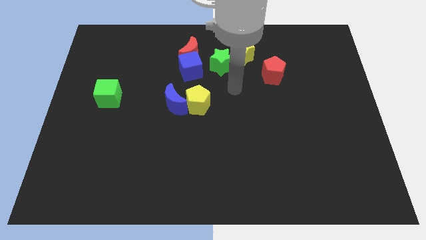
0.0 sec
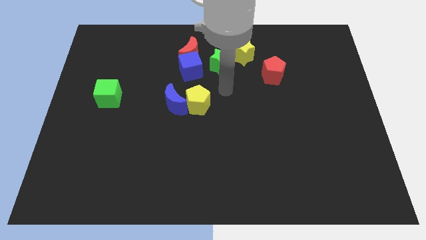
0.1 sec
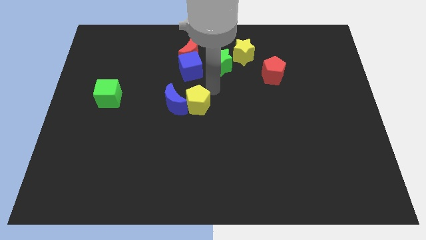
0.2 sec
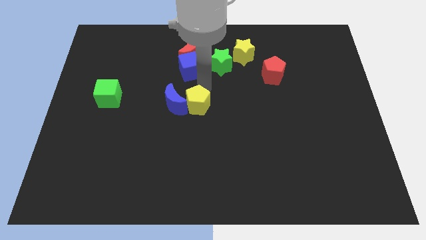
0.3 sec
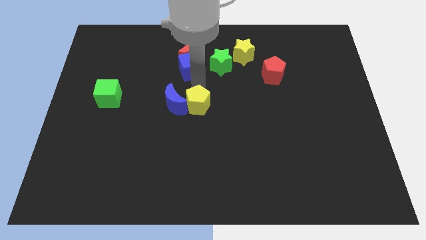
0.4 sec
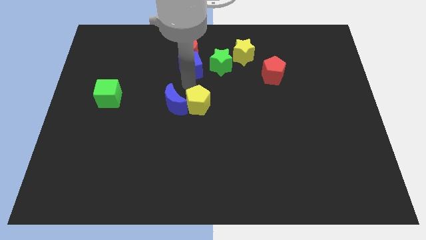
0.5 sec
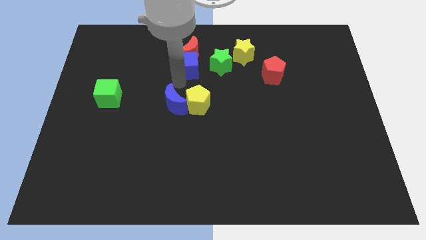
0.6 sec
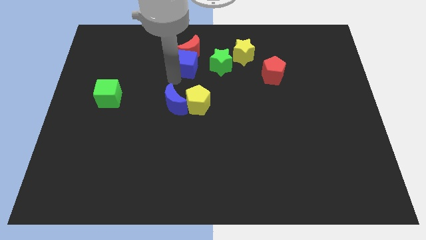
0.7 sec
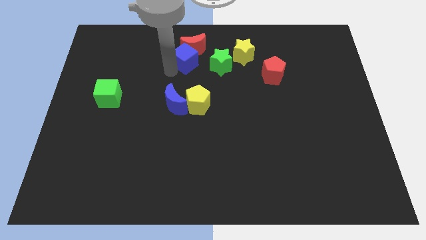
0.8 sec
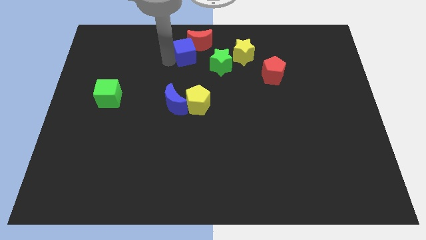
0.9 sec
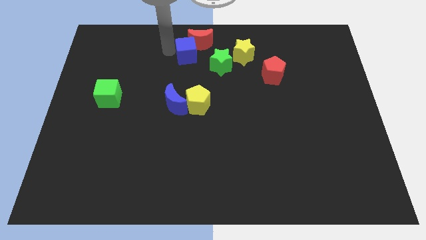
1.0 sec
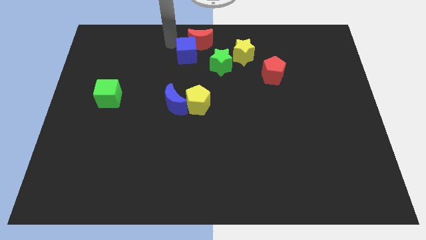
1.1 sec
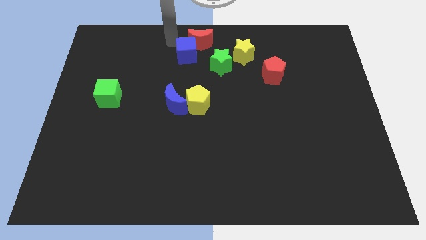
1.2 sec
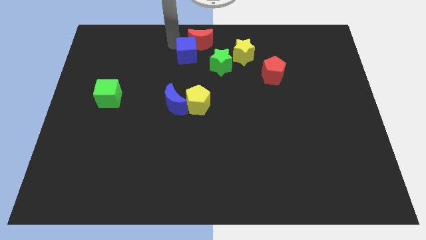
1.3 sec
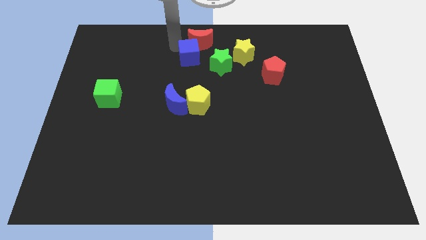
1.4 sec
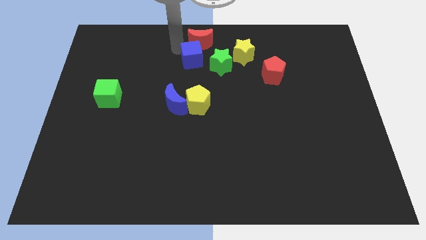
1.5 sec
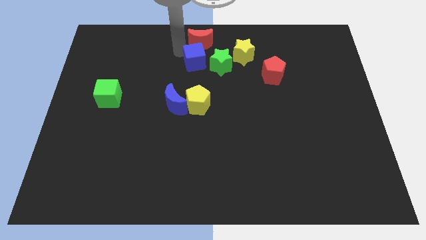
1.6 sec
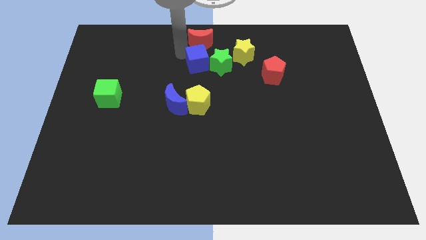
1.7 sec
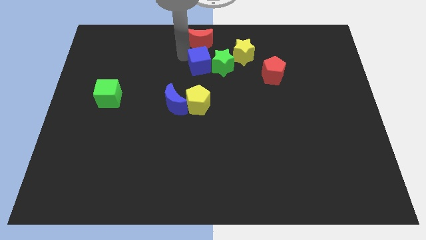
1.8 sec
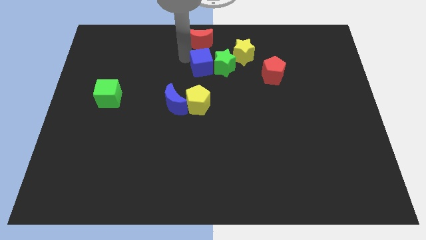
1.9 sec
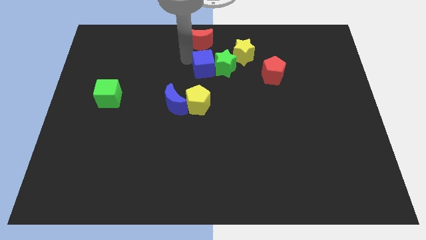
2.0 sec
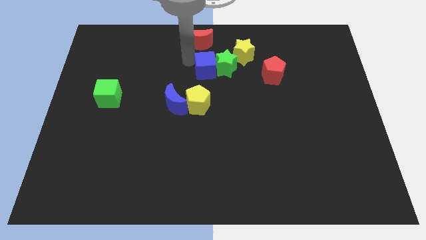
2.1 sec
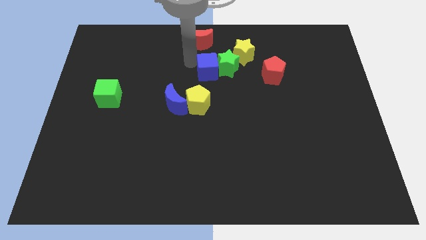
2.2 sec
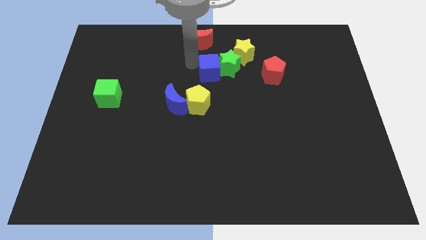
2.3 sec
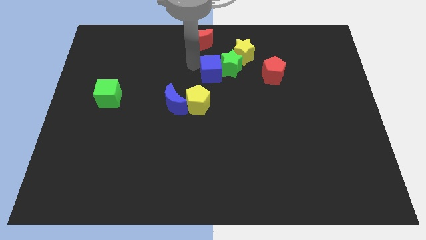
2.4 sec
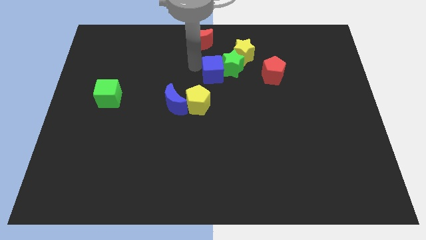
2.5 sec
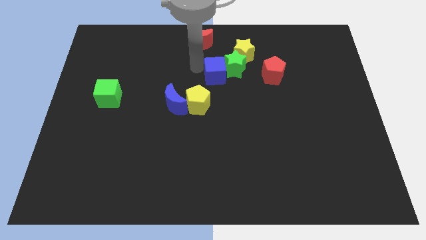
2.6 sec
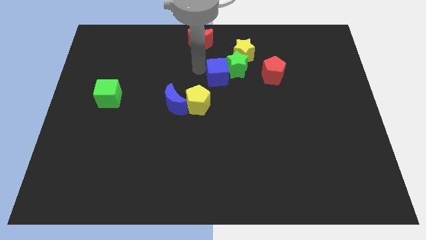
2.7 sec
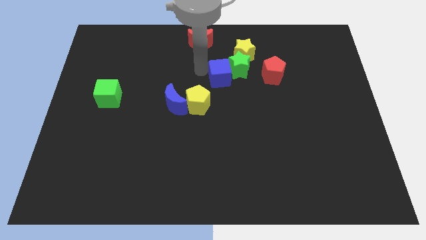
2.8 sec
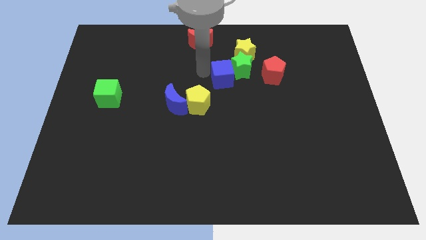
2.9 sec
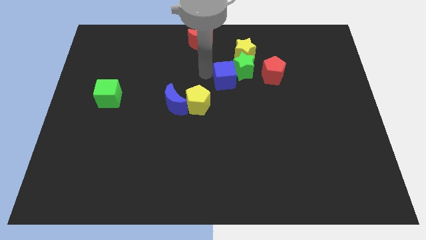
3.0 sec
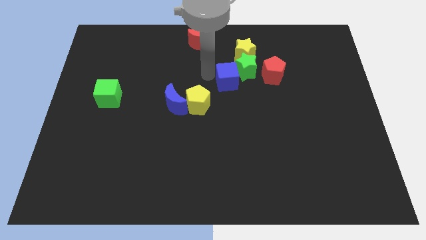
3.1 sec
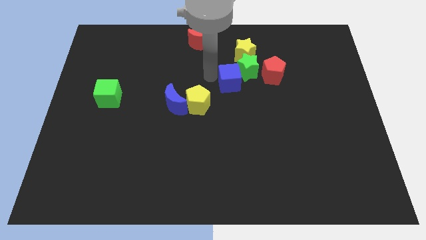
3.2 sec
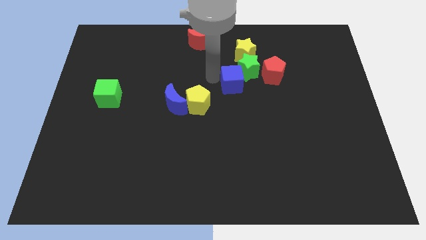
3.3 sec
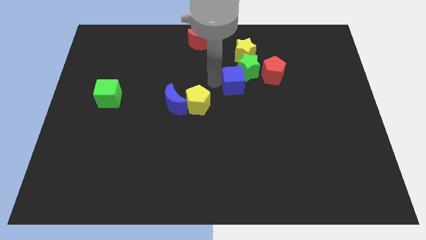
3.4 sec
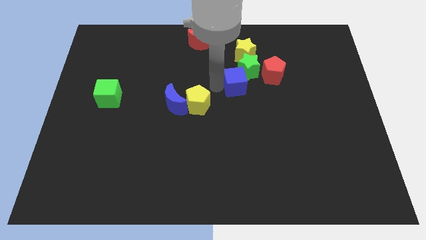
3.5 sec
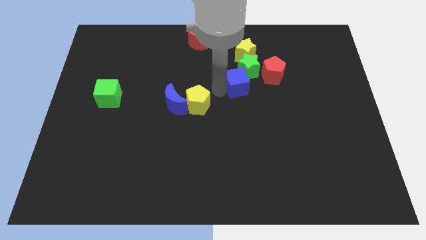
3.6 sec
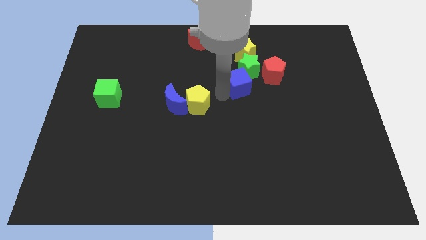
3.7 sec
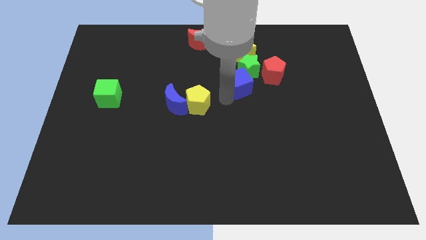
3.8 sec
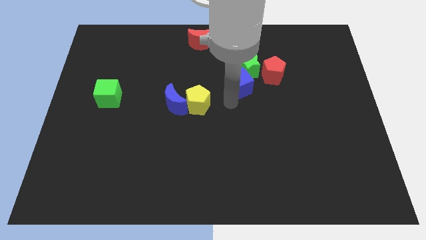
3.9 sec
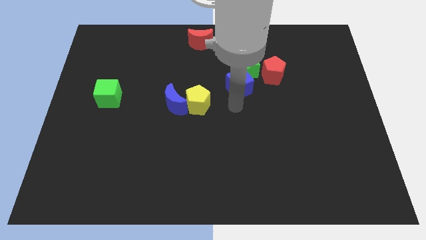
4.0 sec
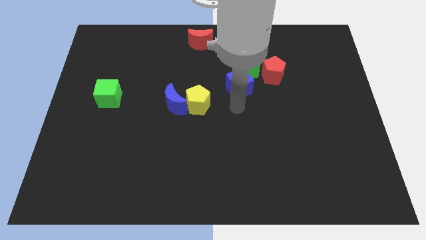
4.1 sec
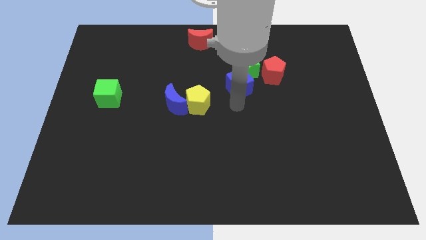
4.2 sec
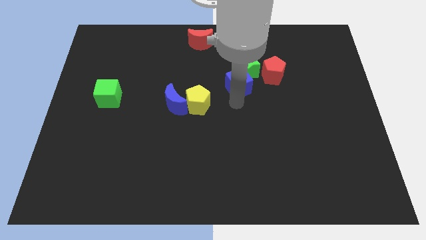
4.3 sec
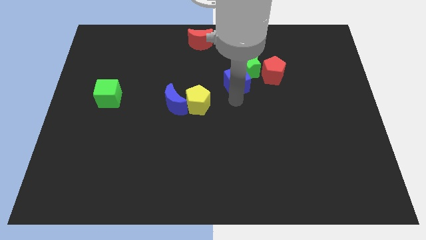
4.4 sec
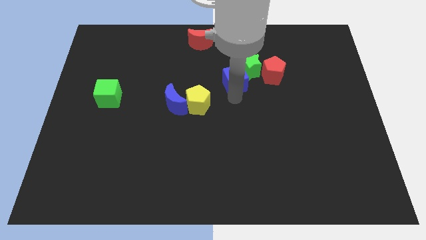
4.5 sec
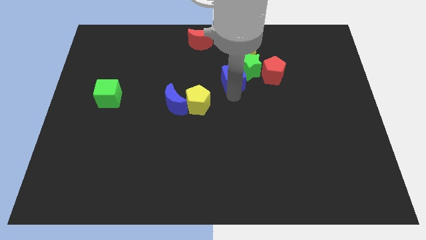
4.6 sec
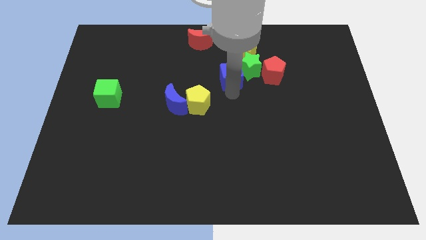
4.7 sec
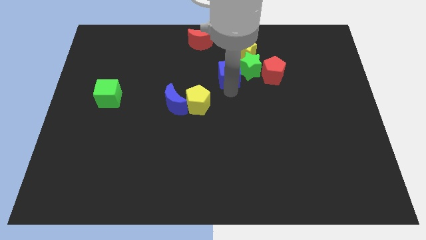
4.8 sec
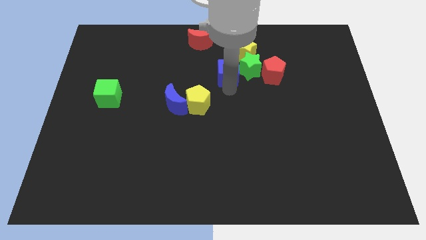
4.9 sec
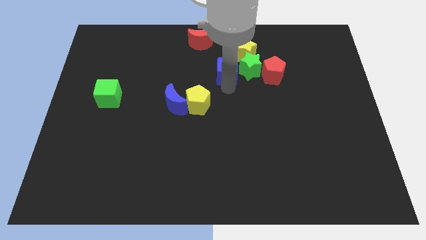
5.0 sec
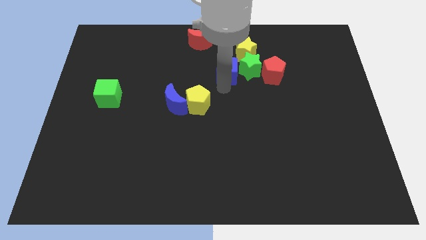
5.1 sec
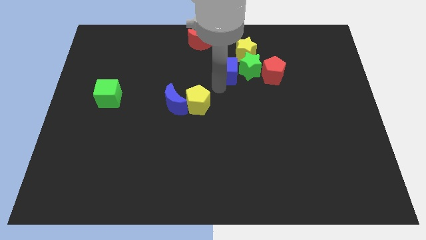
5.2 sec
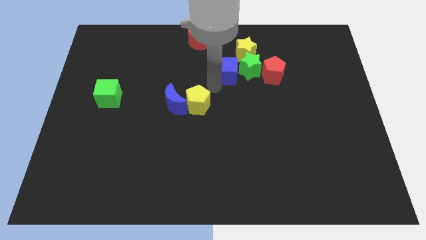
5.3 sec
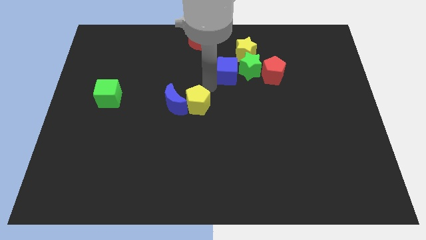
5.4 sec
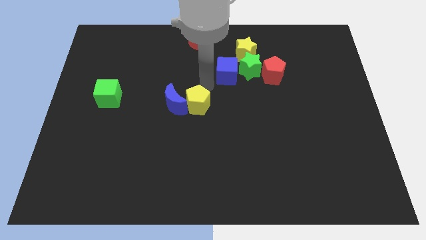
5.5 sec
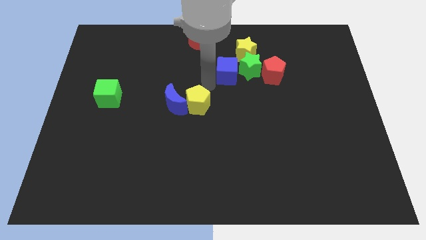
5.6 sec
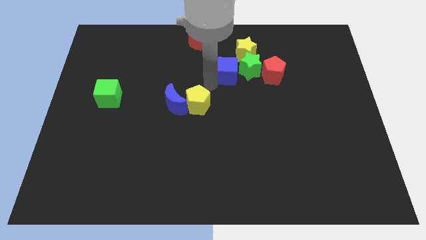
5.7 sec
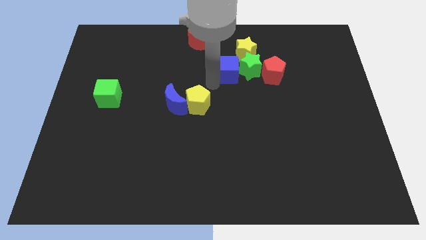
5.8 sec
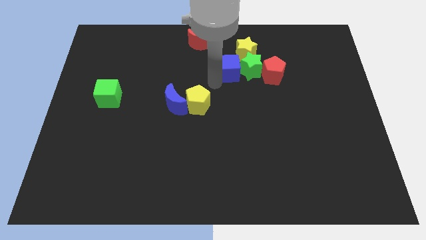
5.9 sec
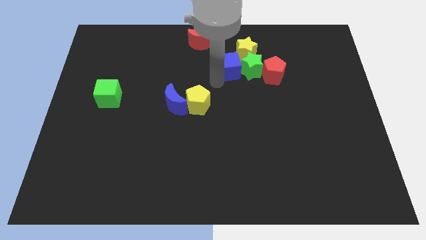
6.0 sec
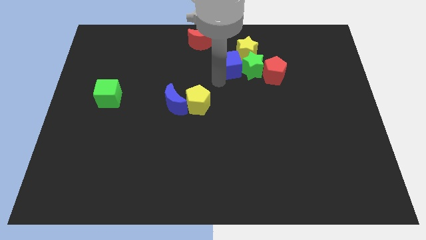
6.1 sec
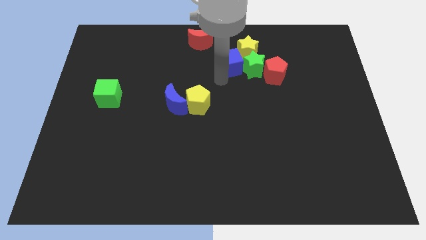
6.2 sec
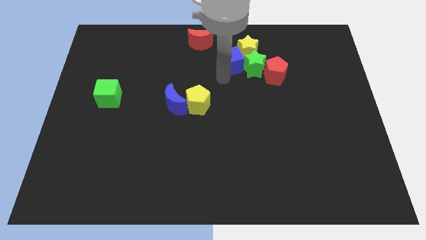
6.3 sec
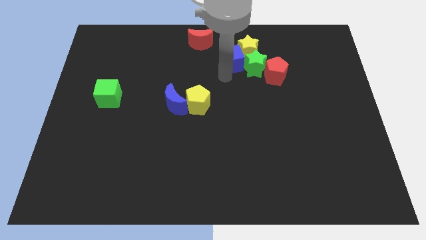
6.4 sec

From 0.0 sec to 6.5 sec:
put the blue cube next to the yellow star

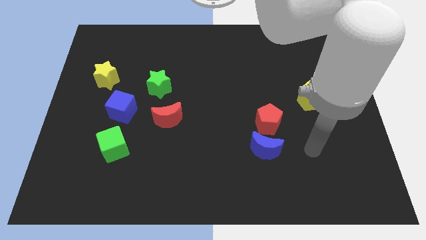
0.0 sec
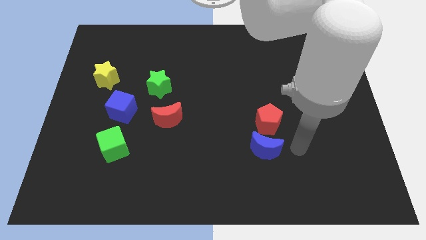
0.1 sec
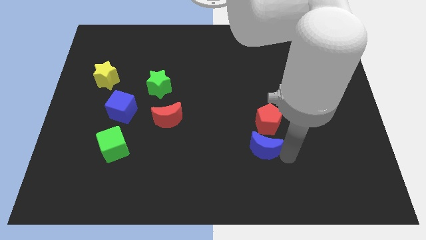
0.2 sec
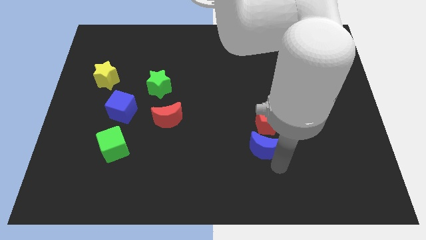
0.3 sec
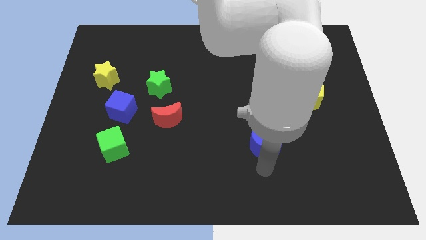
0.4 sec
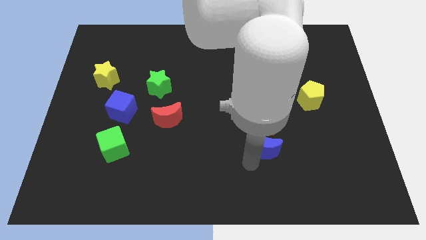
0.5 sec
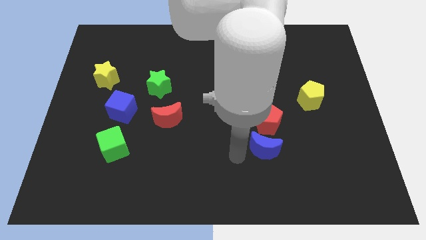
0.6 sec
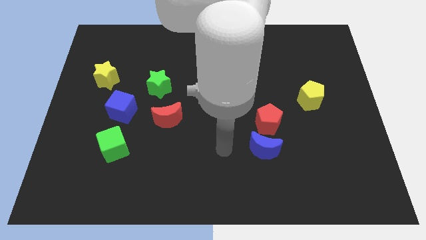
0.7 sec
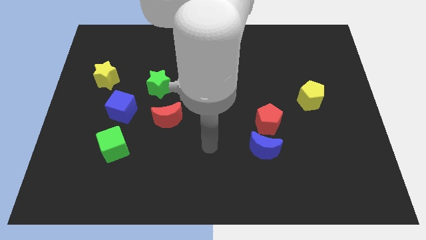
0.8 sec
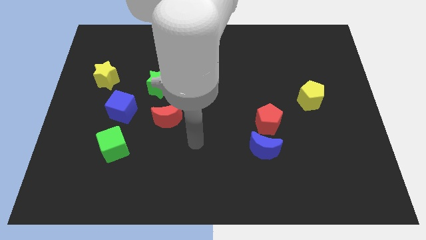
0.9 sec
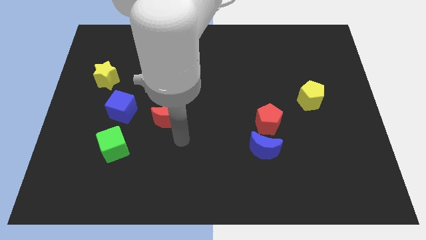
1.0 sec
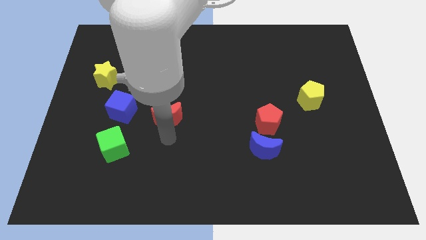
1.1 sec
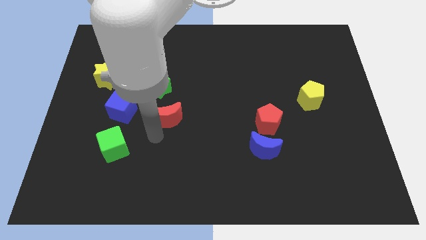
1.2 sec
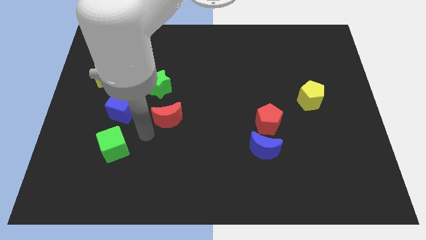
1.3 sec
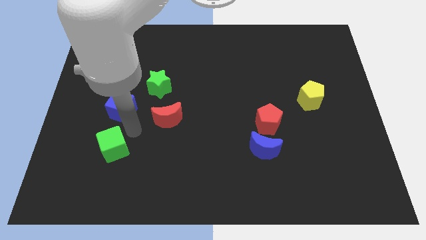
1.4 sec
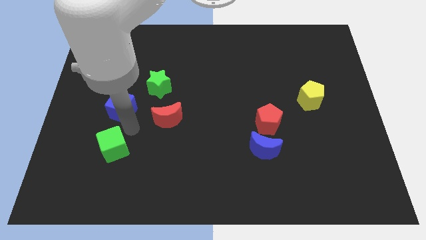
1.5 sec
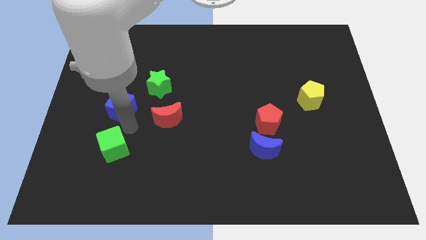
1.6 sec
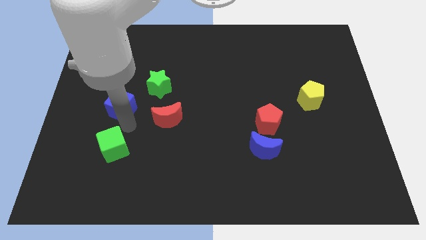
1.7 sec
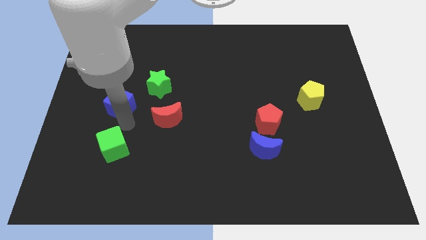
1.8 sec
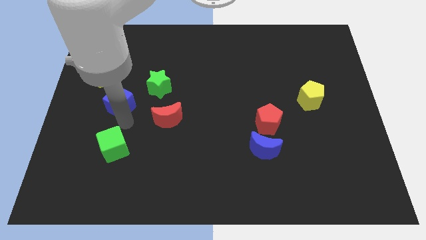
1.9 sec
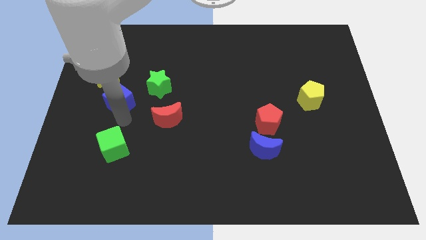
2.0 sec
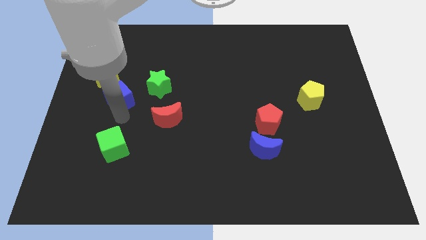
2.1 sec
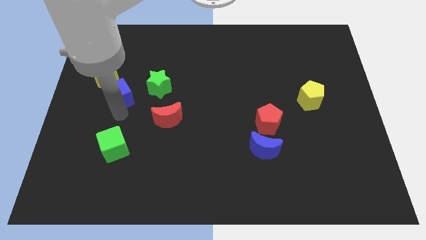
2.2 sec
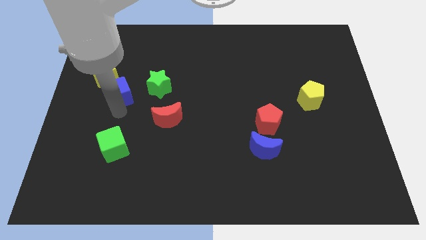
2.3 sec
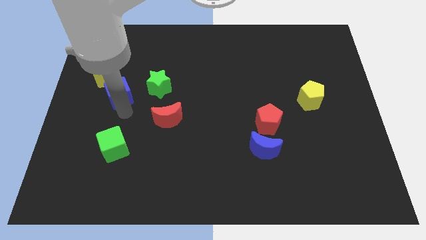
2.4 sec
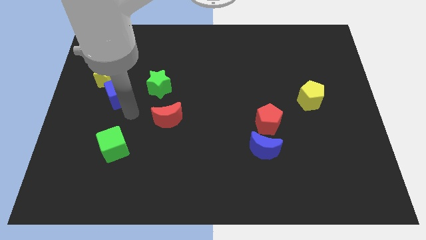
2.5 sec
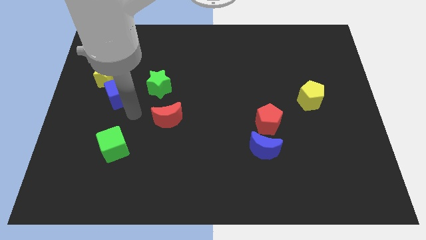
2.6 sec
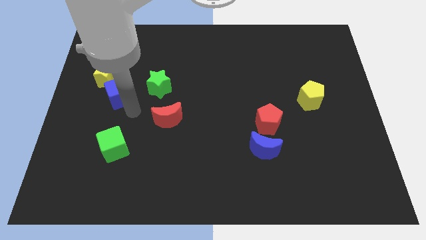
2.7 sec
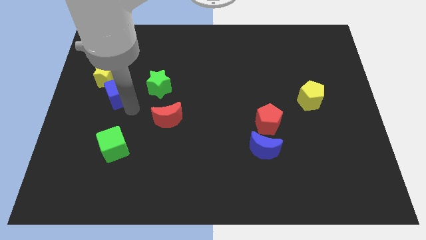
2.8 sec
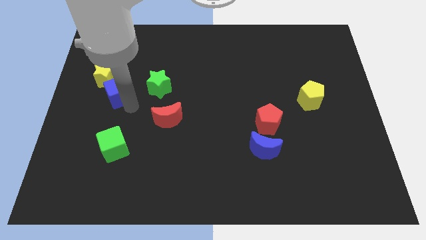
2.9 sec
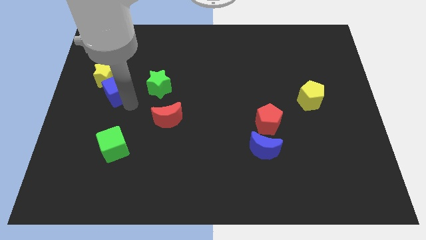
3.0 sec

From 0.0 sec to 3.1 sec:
push the blue cube next to the yellow star
